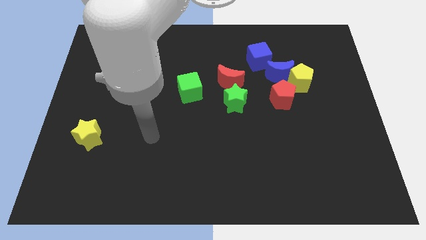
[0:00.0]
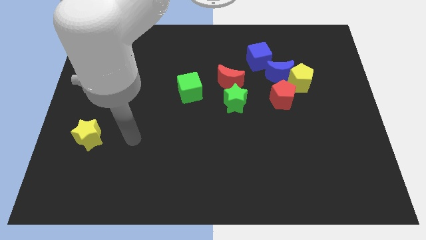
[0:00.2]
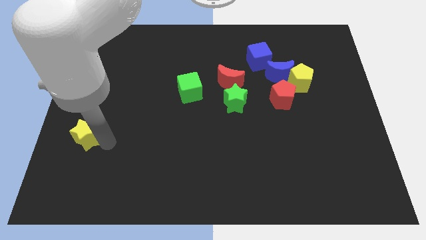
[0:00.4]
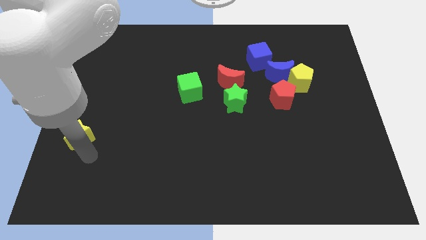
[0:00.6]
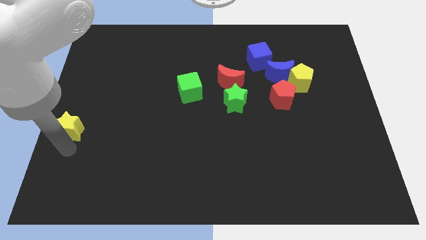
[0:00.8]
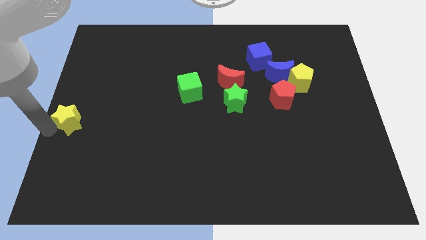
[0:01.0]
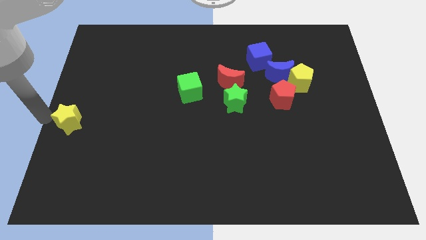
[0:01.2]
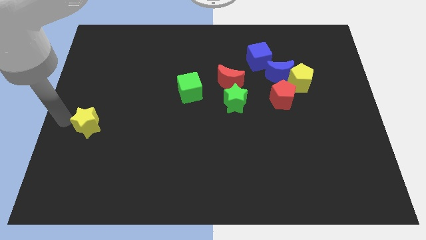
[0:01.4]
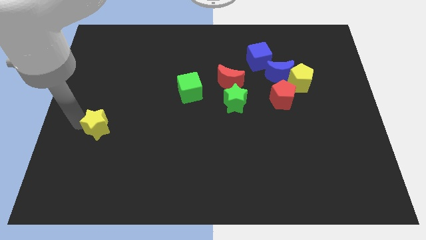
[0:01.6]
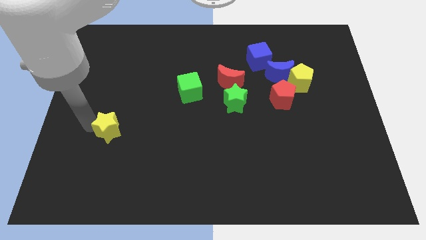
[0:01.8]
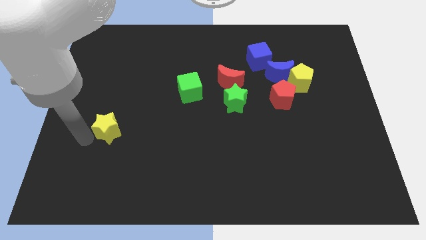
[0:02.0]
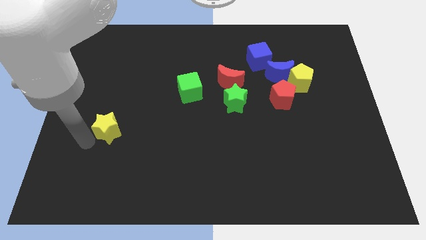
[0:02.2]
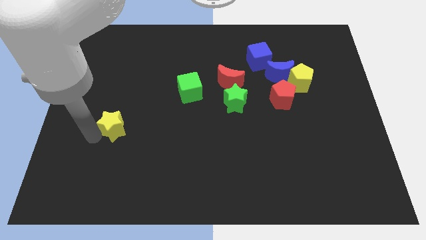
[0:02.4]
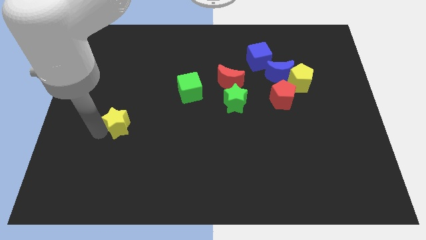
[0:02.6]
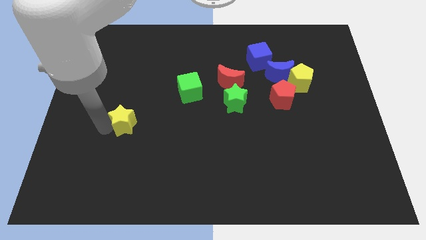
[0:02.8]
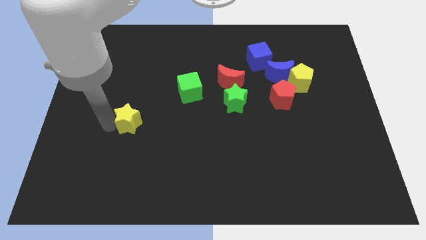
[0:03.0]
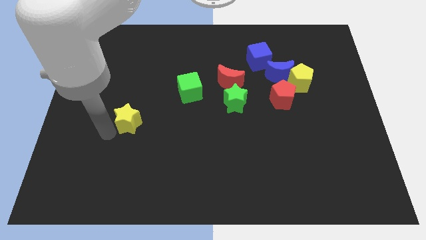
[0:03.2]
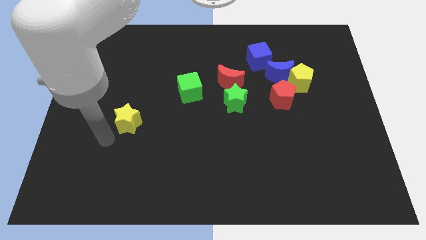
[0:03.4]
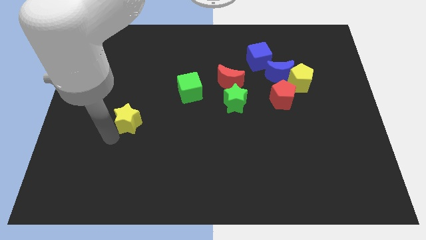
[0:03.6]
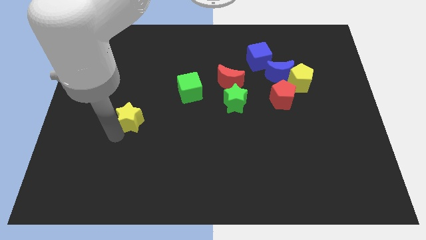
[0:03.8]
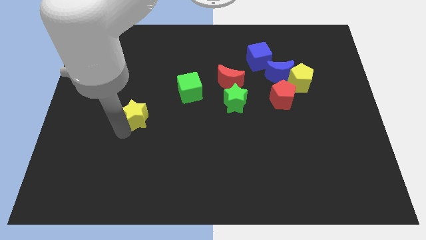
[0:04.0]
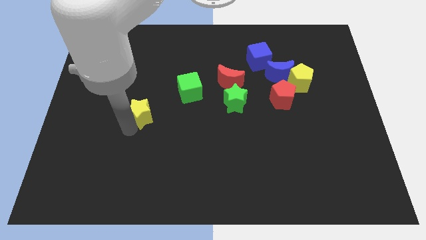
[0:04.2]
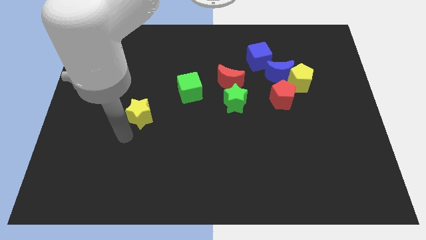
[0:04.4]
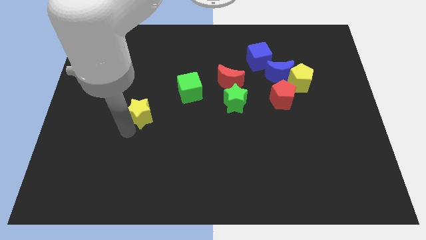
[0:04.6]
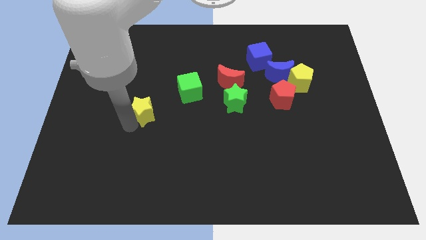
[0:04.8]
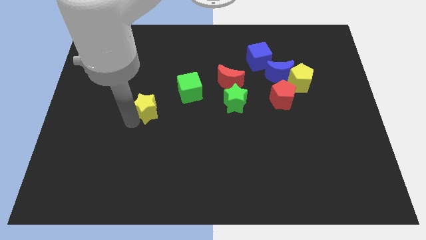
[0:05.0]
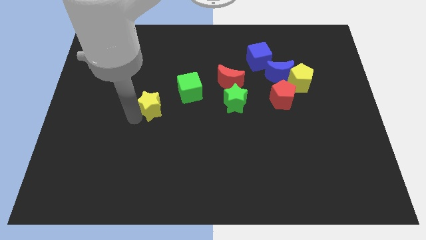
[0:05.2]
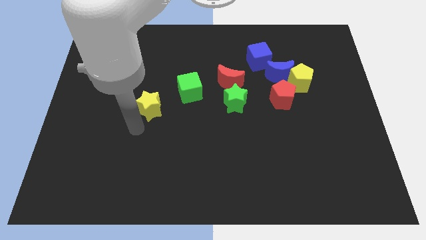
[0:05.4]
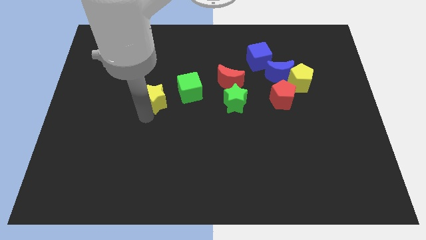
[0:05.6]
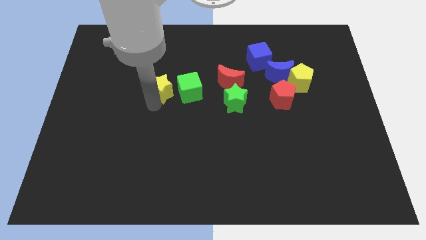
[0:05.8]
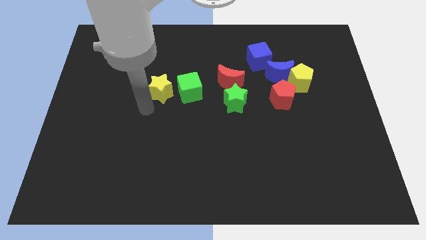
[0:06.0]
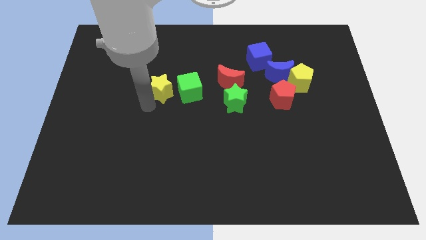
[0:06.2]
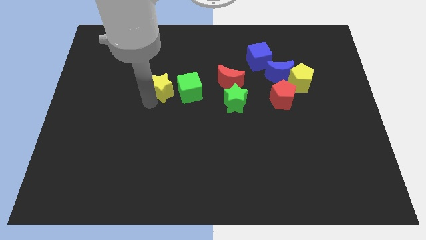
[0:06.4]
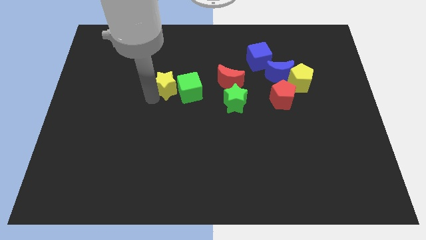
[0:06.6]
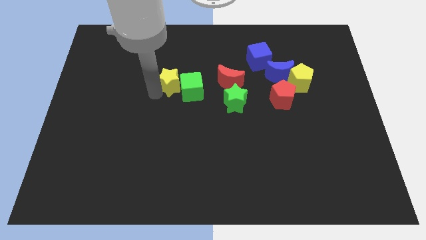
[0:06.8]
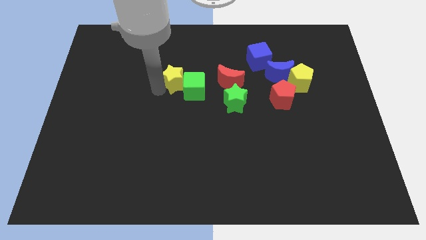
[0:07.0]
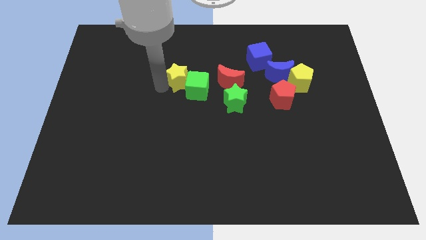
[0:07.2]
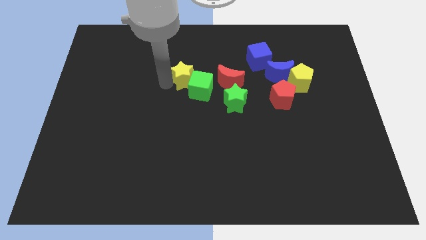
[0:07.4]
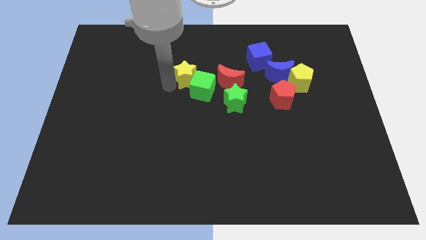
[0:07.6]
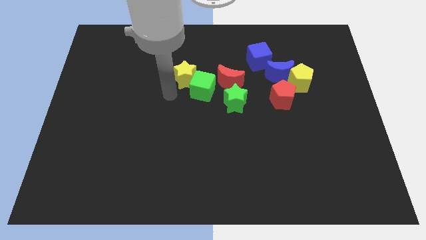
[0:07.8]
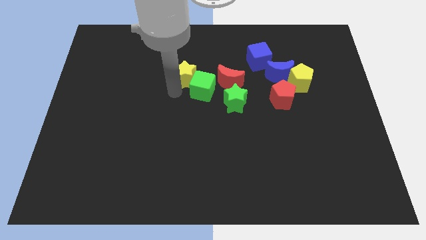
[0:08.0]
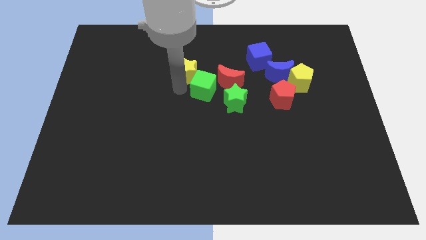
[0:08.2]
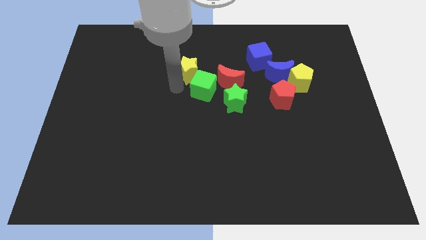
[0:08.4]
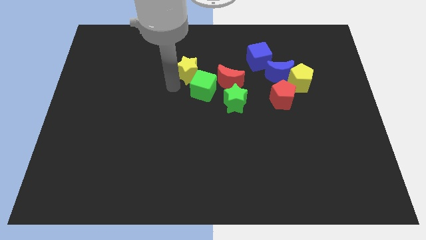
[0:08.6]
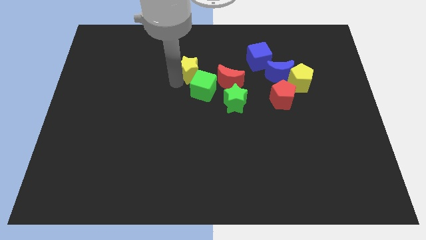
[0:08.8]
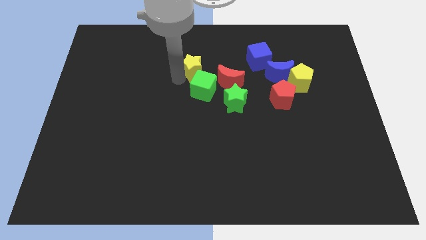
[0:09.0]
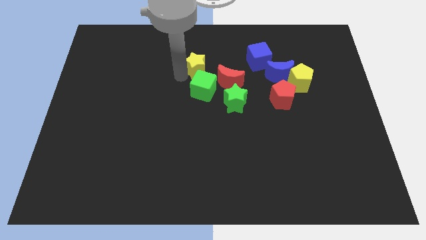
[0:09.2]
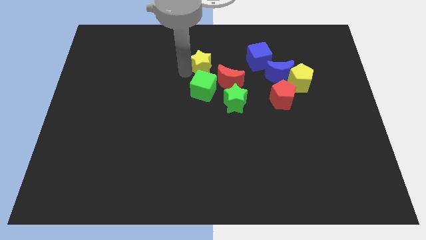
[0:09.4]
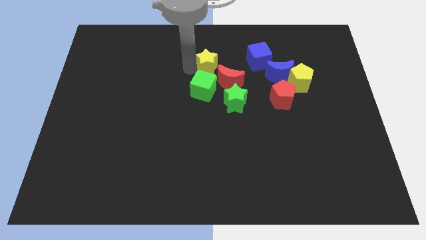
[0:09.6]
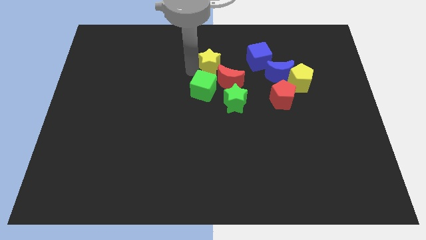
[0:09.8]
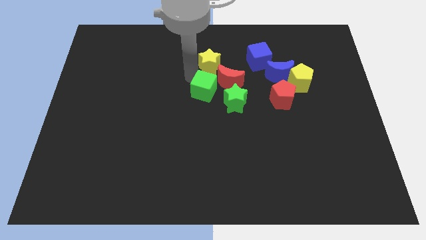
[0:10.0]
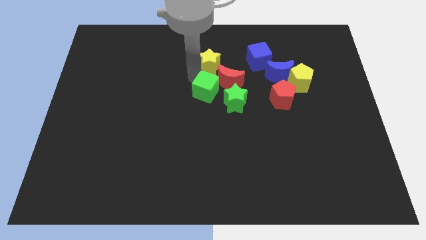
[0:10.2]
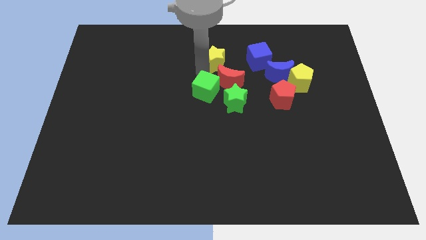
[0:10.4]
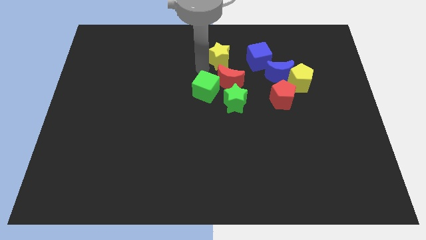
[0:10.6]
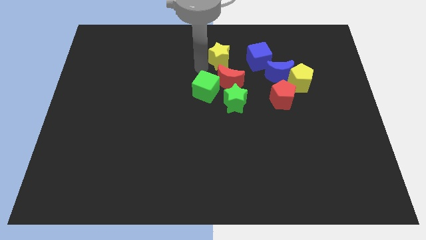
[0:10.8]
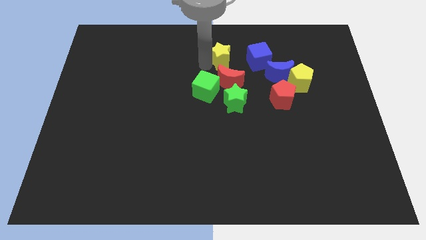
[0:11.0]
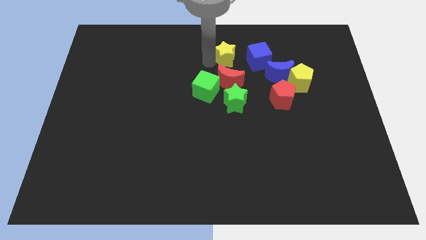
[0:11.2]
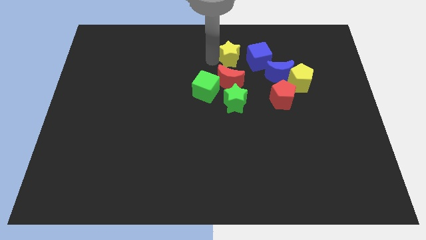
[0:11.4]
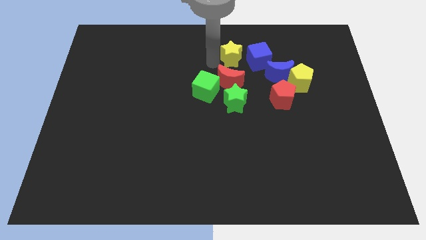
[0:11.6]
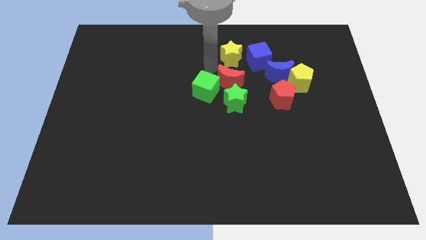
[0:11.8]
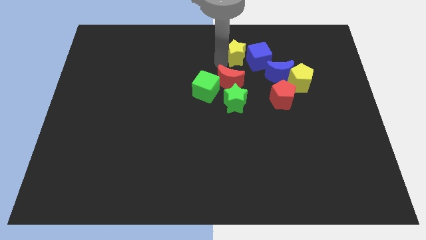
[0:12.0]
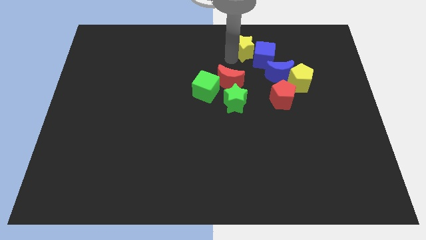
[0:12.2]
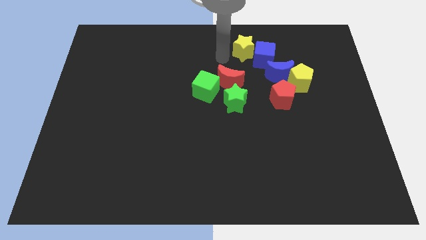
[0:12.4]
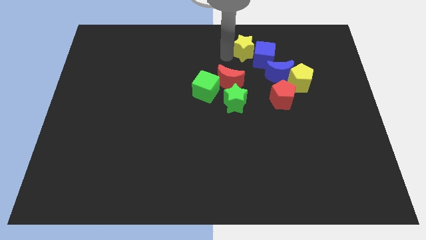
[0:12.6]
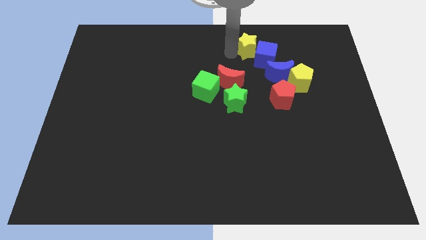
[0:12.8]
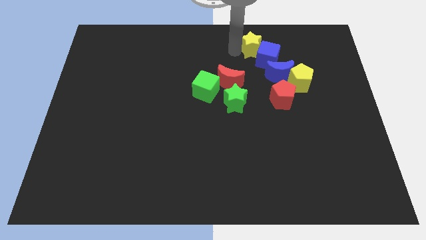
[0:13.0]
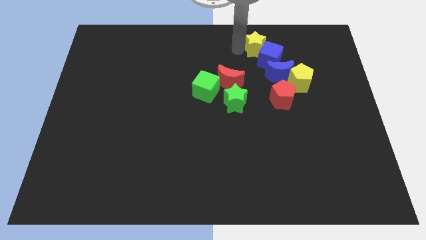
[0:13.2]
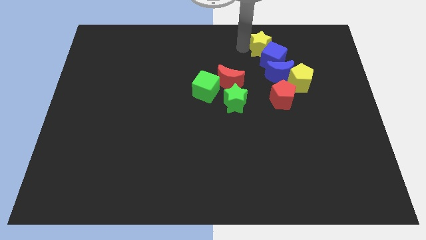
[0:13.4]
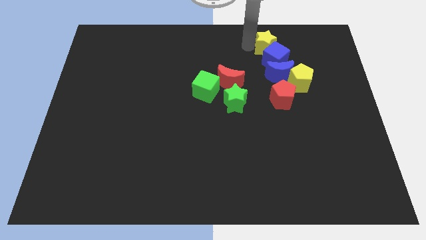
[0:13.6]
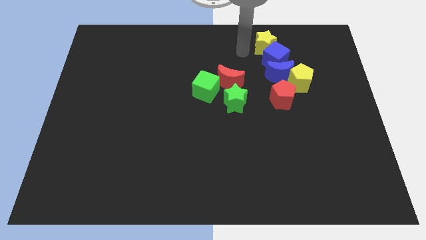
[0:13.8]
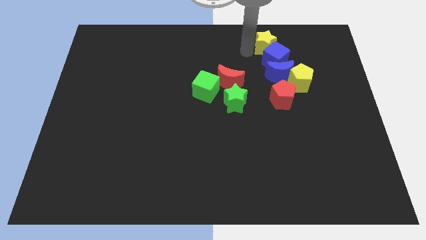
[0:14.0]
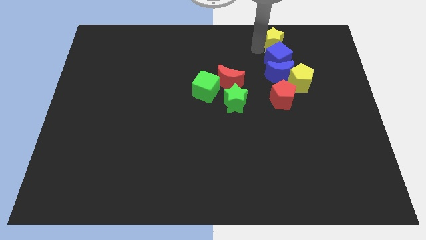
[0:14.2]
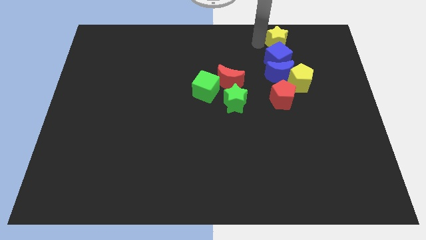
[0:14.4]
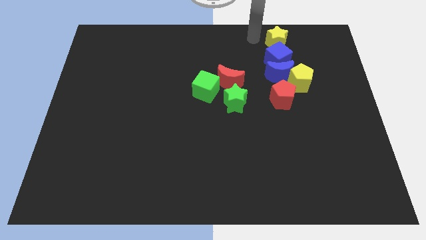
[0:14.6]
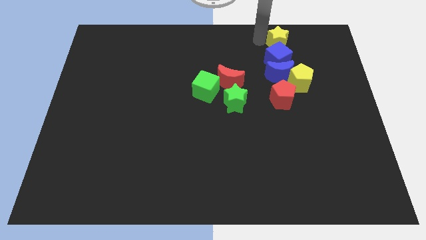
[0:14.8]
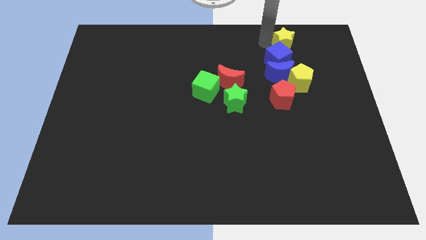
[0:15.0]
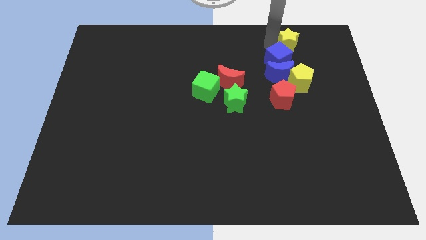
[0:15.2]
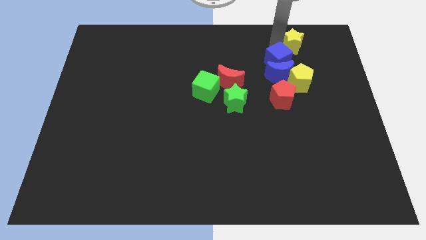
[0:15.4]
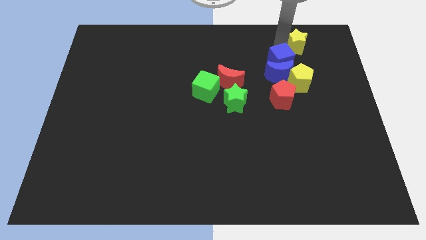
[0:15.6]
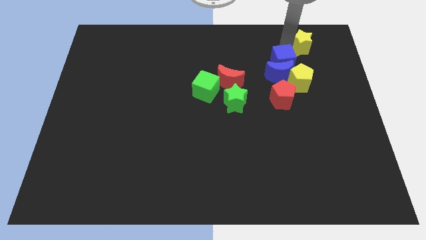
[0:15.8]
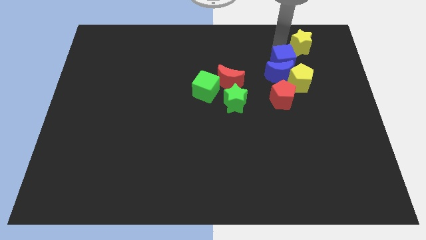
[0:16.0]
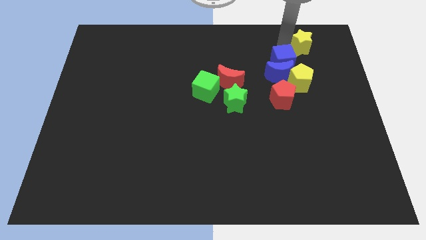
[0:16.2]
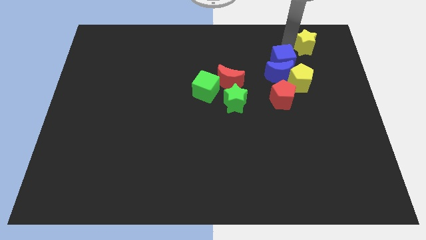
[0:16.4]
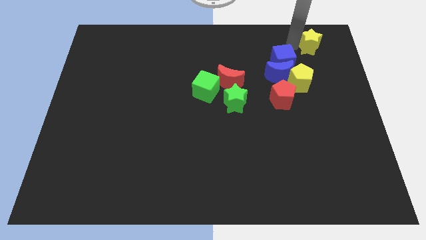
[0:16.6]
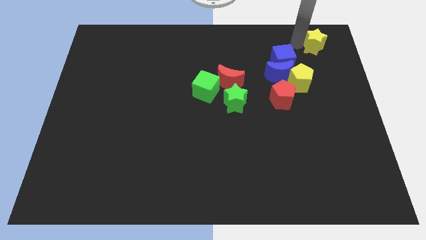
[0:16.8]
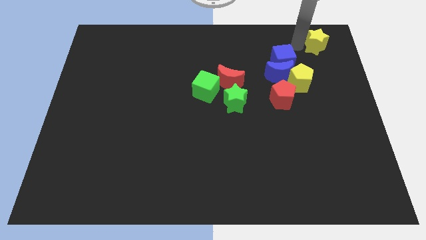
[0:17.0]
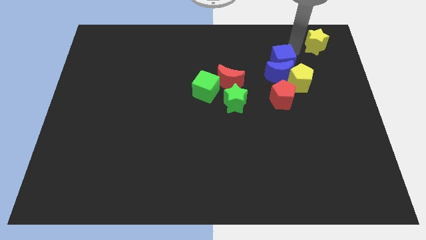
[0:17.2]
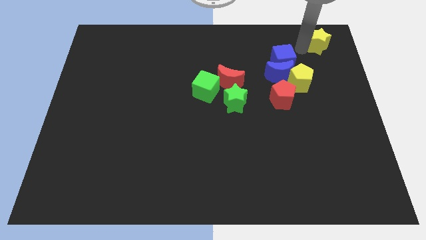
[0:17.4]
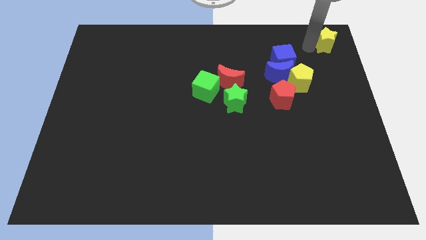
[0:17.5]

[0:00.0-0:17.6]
slide the yellow star to the top right corner
